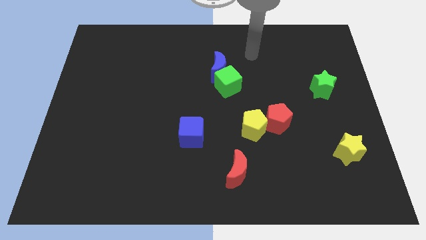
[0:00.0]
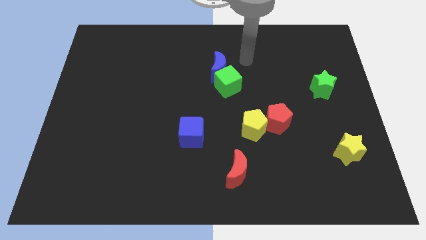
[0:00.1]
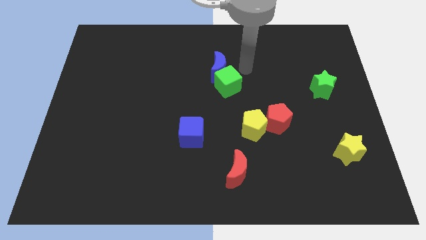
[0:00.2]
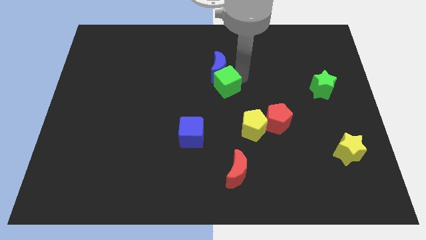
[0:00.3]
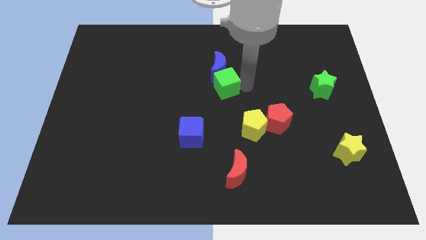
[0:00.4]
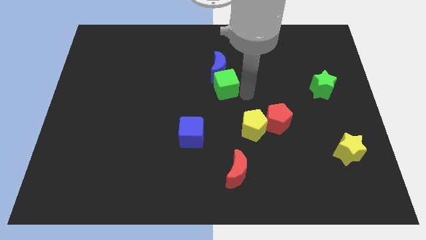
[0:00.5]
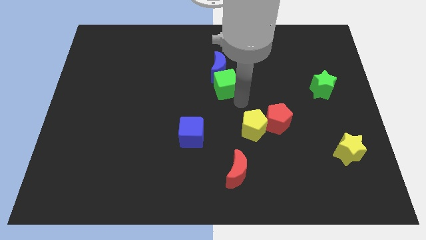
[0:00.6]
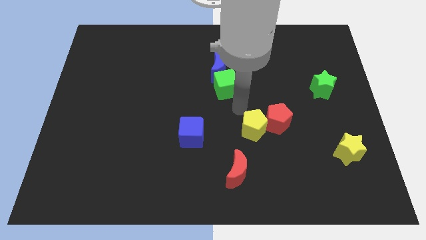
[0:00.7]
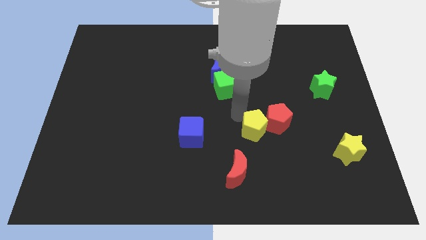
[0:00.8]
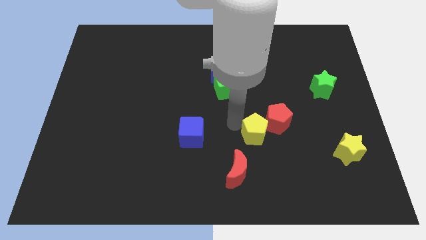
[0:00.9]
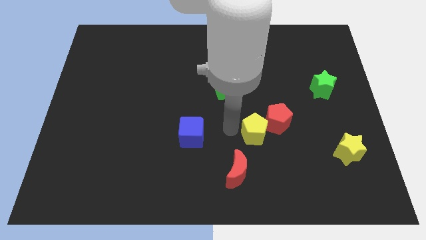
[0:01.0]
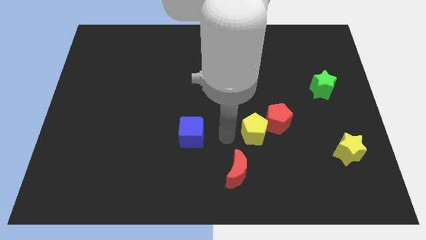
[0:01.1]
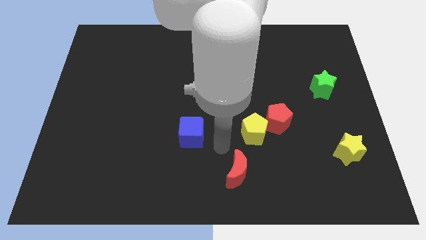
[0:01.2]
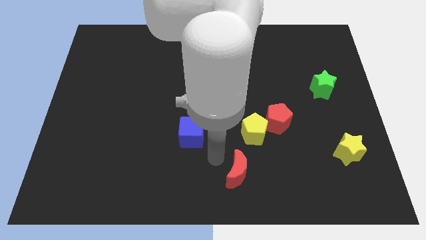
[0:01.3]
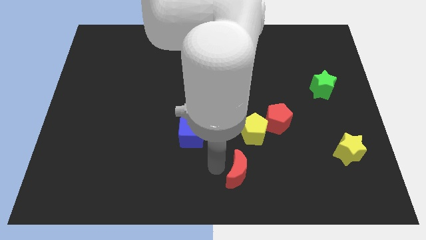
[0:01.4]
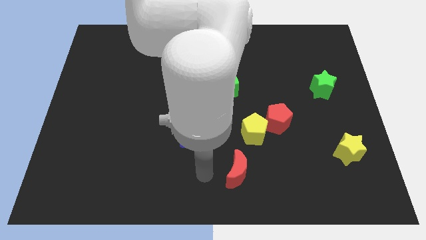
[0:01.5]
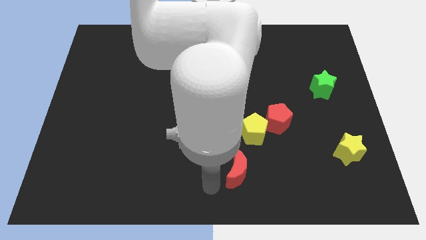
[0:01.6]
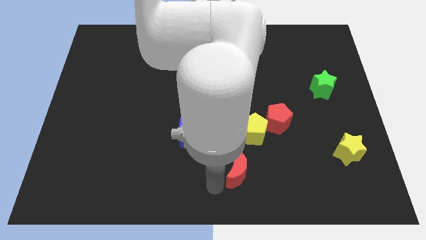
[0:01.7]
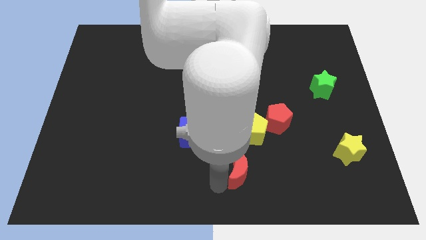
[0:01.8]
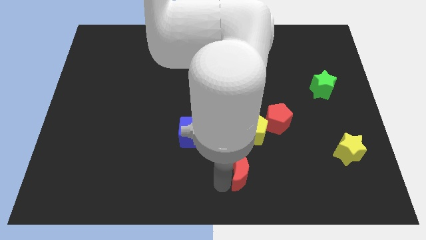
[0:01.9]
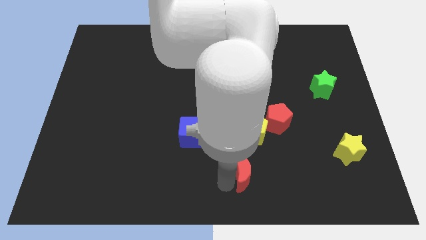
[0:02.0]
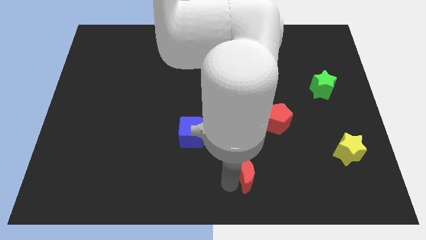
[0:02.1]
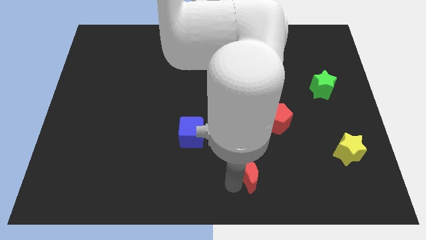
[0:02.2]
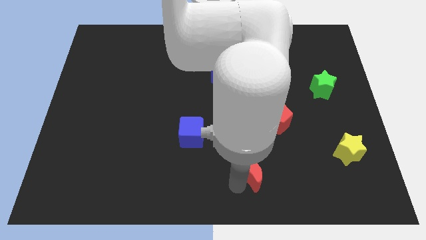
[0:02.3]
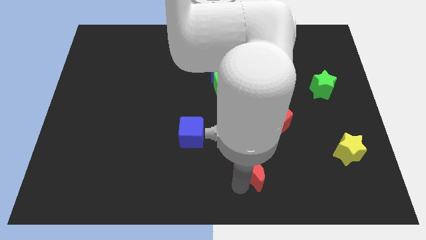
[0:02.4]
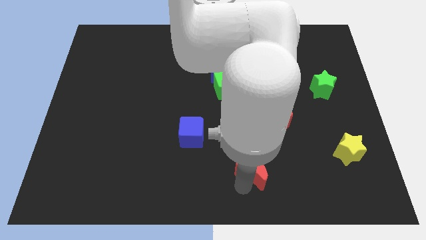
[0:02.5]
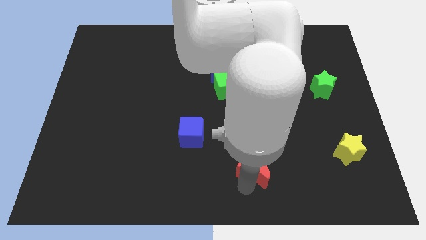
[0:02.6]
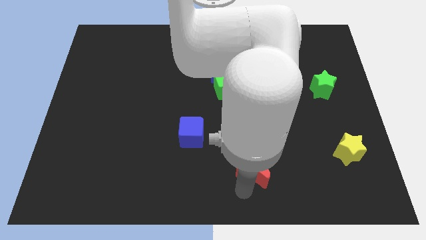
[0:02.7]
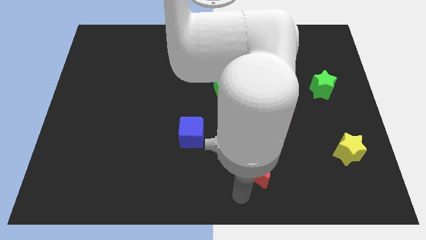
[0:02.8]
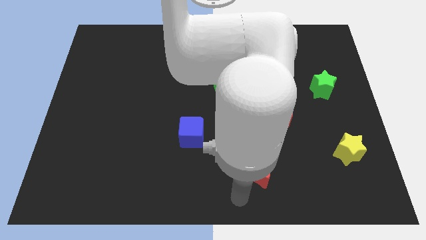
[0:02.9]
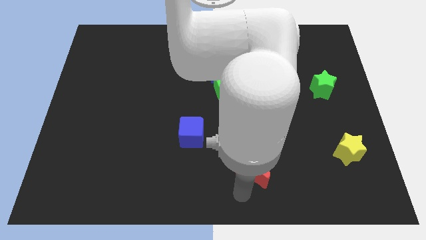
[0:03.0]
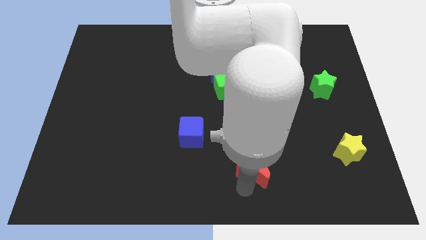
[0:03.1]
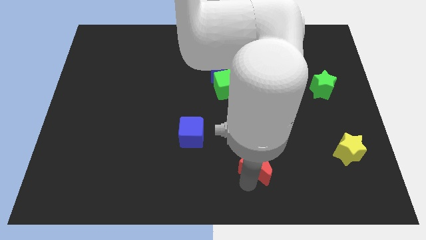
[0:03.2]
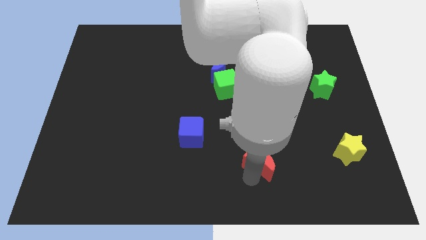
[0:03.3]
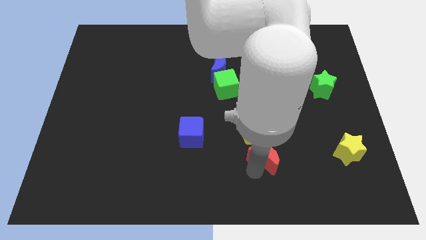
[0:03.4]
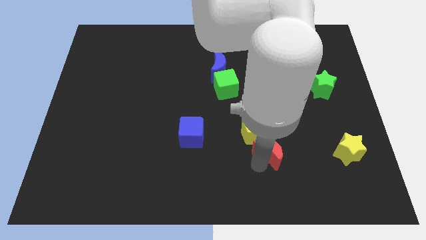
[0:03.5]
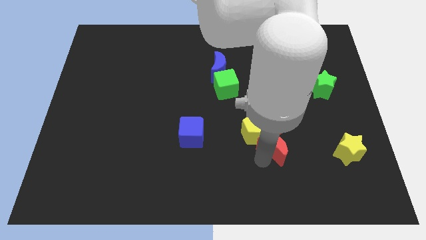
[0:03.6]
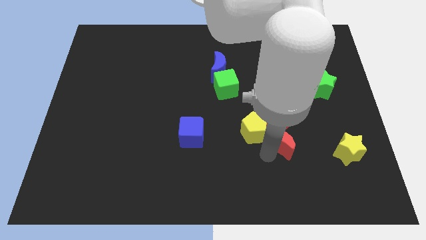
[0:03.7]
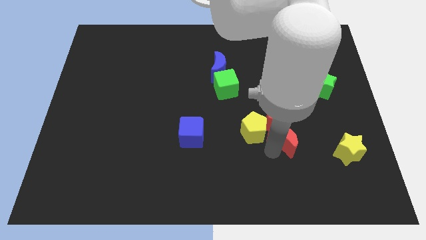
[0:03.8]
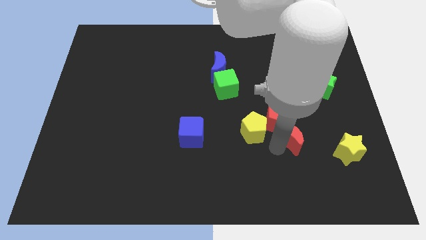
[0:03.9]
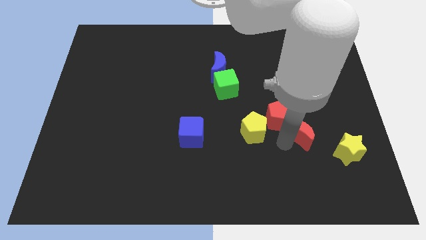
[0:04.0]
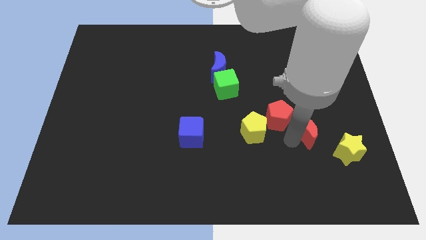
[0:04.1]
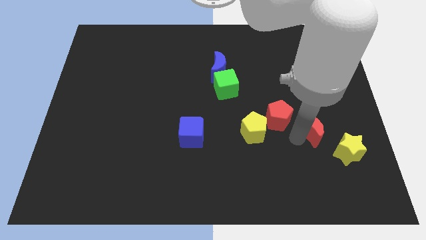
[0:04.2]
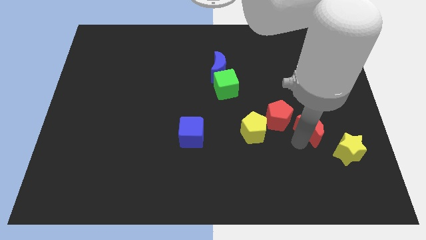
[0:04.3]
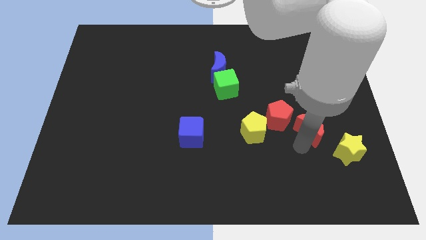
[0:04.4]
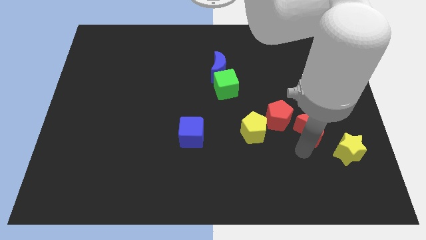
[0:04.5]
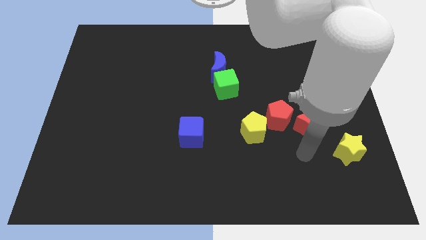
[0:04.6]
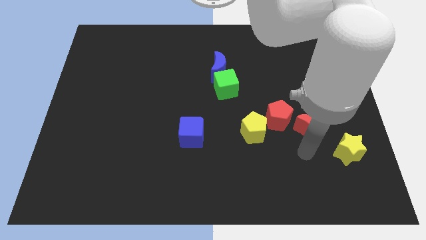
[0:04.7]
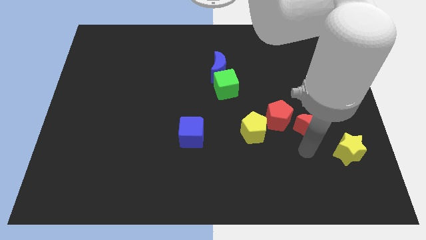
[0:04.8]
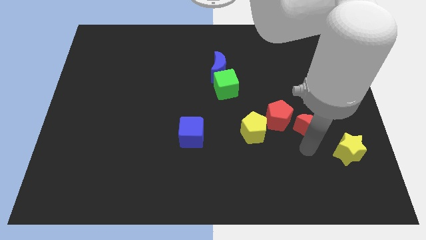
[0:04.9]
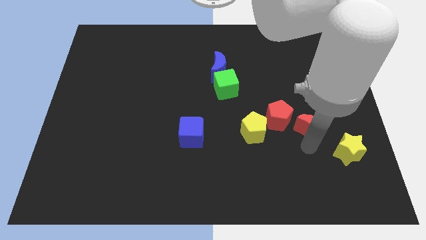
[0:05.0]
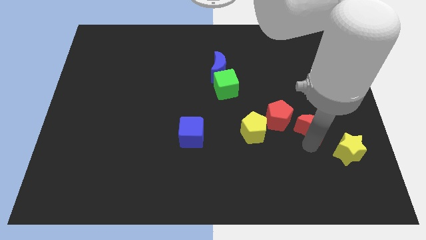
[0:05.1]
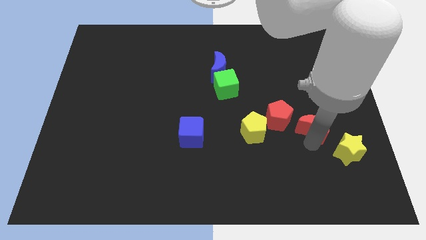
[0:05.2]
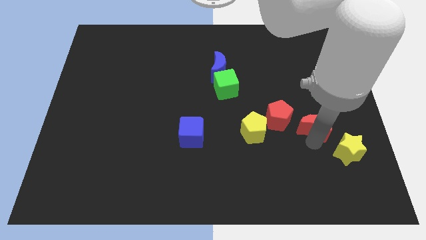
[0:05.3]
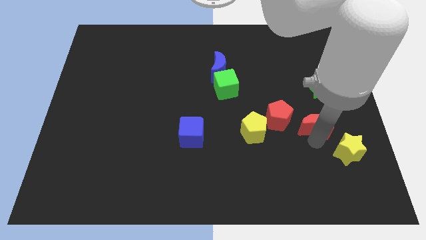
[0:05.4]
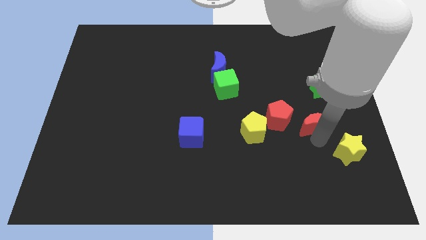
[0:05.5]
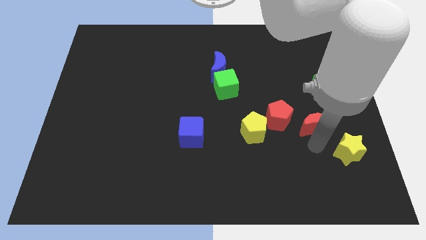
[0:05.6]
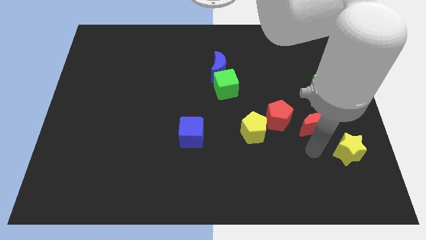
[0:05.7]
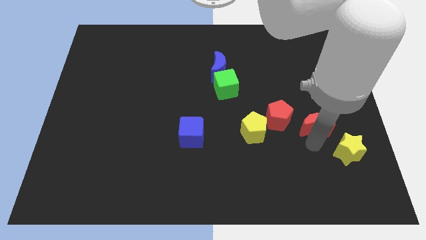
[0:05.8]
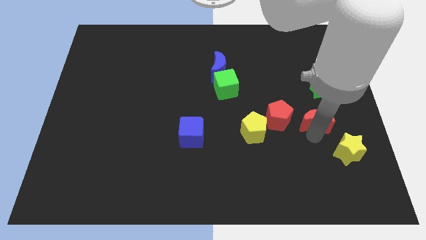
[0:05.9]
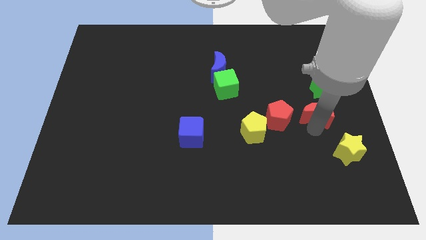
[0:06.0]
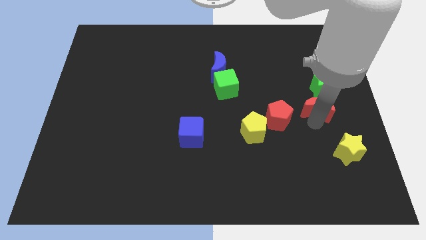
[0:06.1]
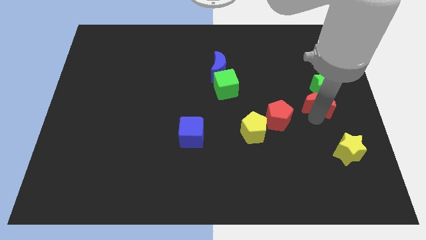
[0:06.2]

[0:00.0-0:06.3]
slide the red moon towards the green star
